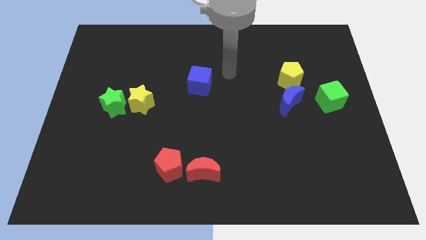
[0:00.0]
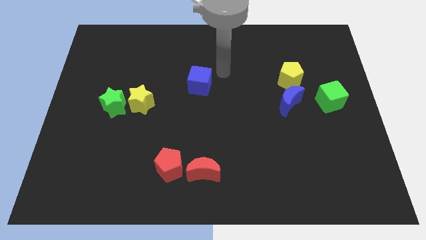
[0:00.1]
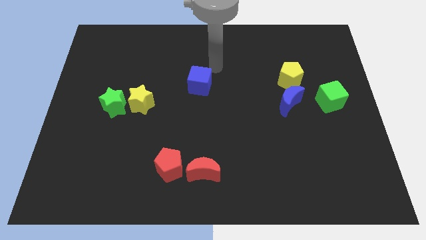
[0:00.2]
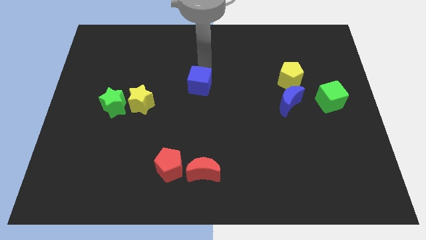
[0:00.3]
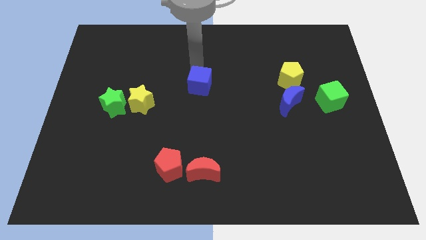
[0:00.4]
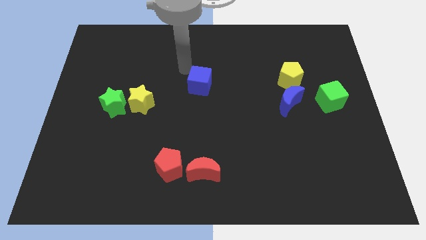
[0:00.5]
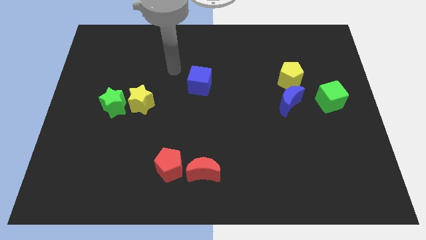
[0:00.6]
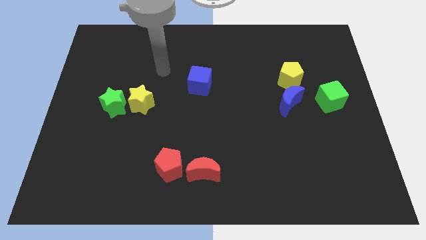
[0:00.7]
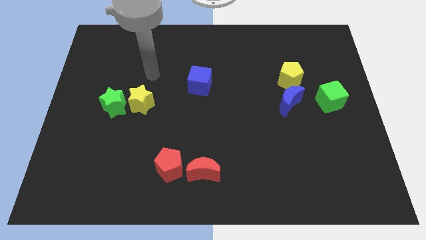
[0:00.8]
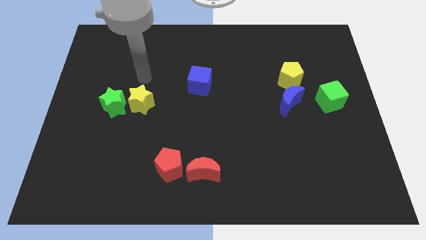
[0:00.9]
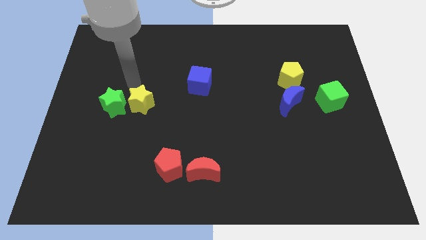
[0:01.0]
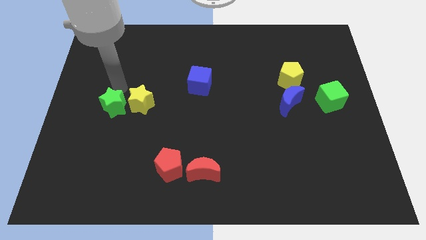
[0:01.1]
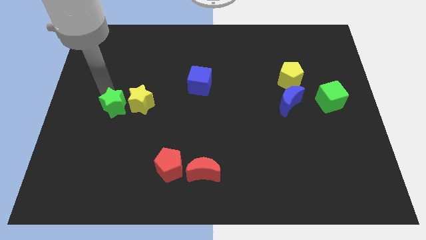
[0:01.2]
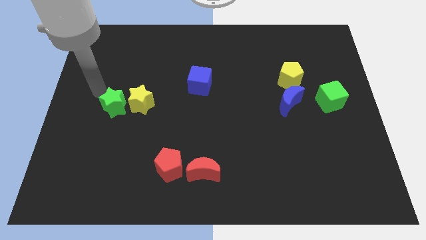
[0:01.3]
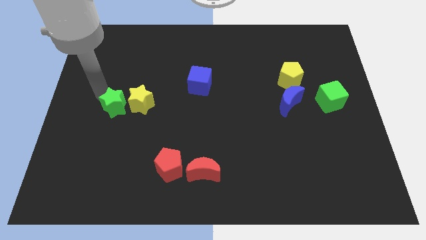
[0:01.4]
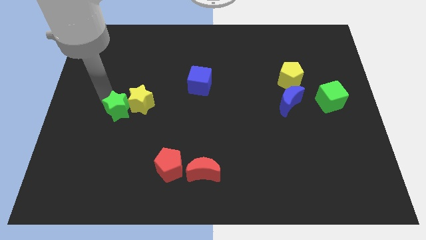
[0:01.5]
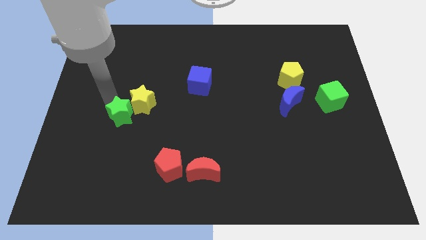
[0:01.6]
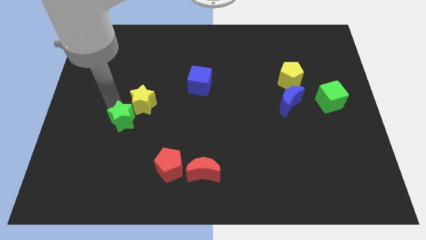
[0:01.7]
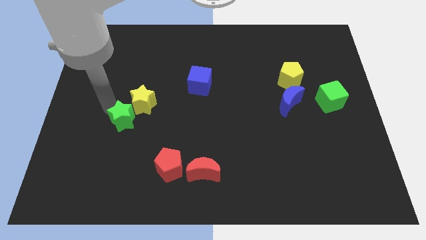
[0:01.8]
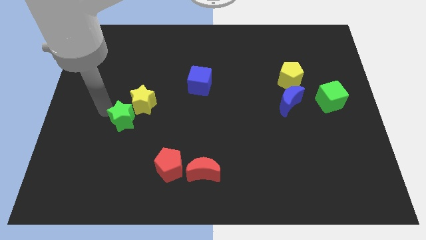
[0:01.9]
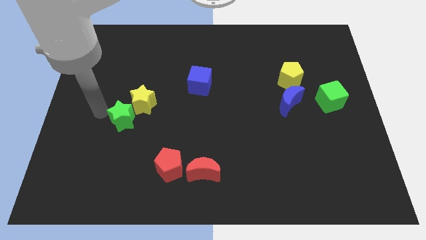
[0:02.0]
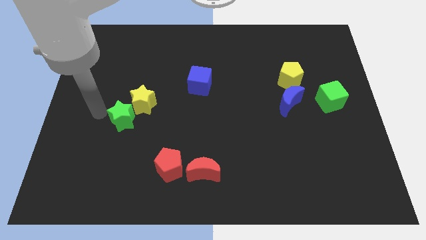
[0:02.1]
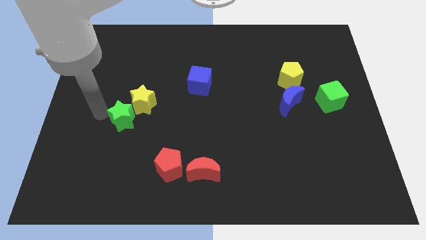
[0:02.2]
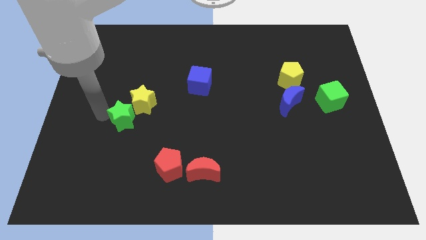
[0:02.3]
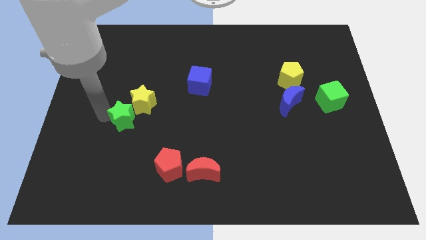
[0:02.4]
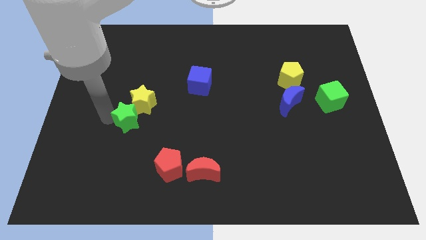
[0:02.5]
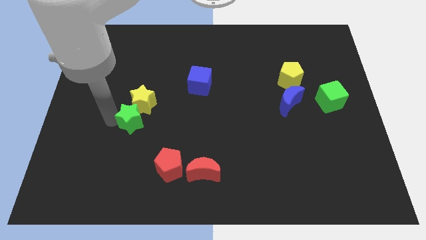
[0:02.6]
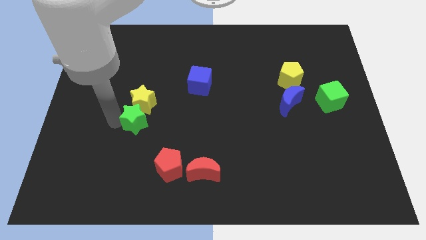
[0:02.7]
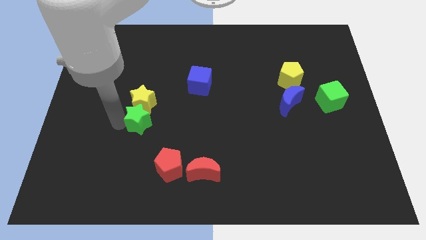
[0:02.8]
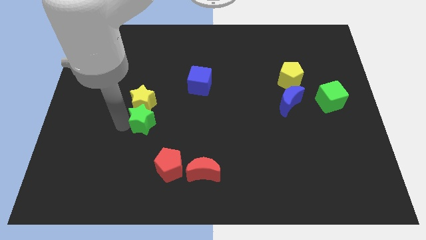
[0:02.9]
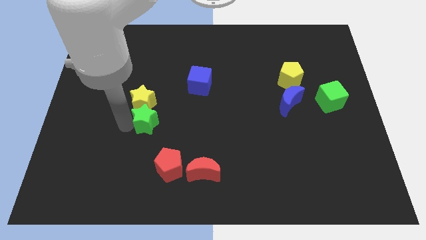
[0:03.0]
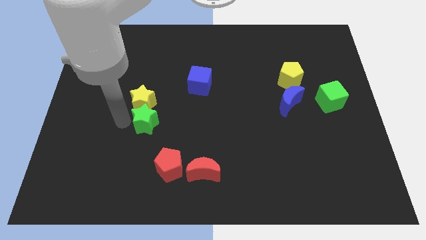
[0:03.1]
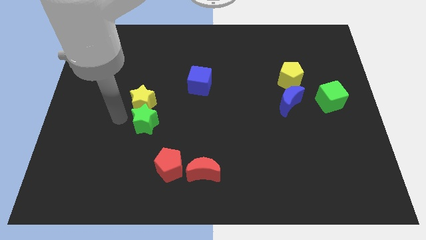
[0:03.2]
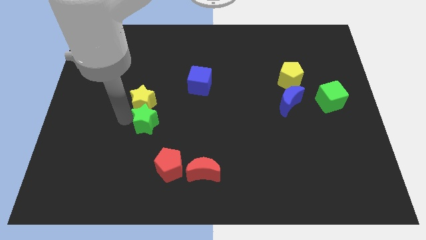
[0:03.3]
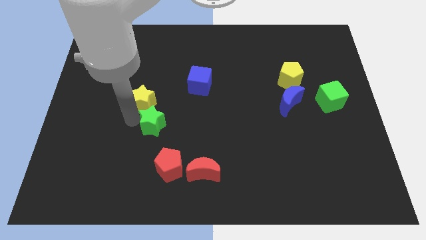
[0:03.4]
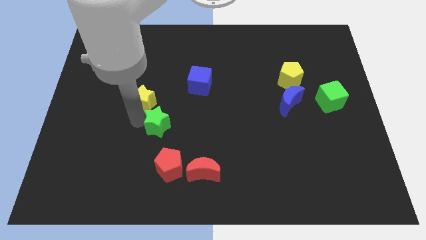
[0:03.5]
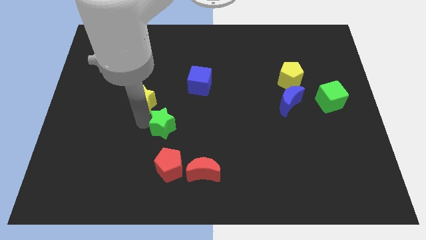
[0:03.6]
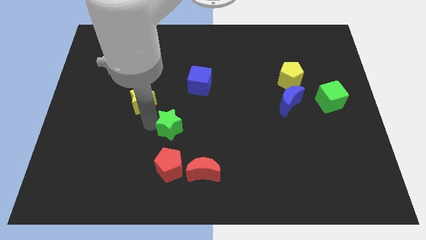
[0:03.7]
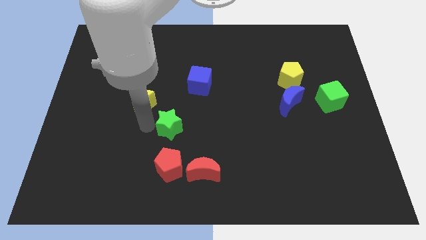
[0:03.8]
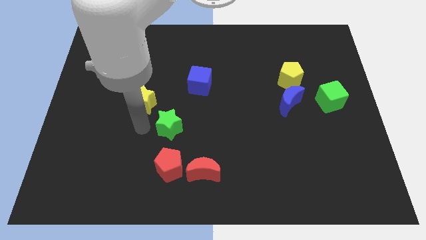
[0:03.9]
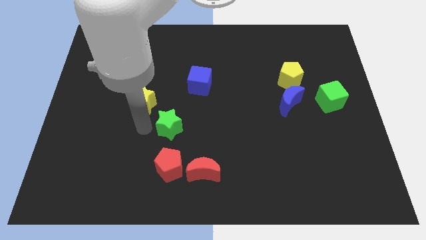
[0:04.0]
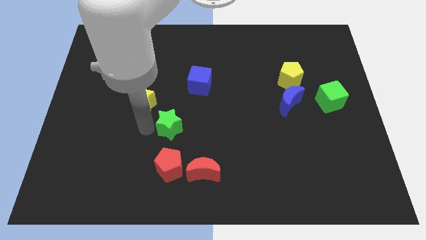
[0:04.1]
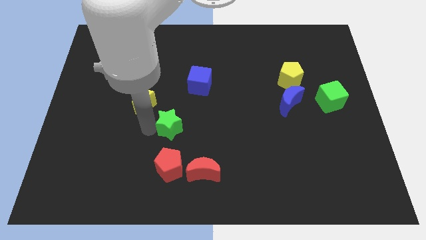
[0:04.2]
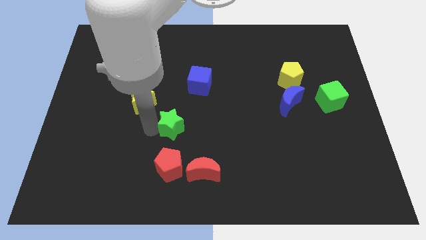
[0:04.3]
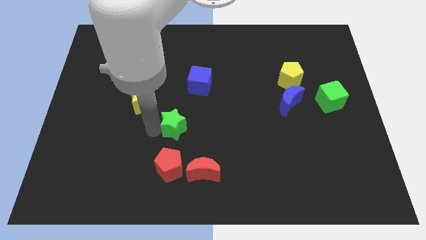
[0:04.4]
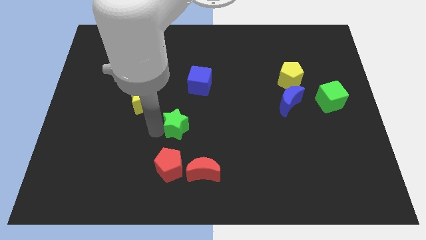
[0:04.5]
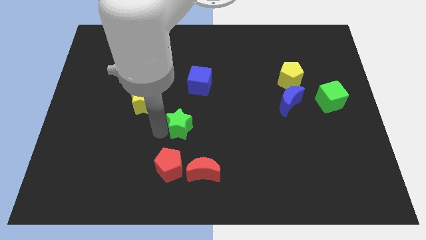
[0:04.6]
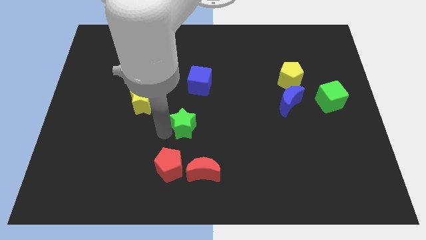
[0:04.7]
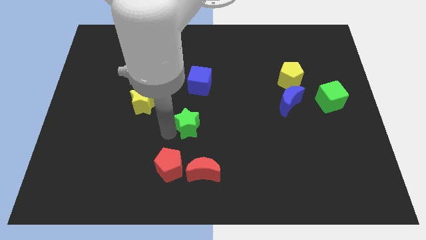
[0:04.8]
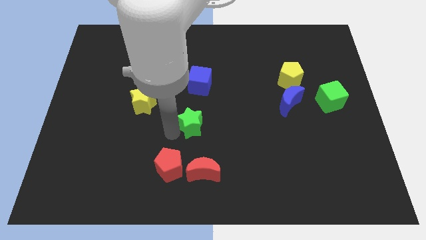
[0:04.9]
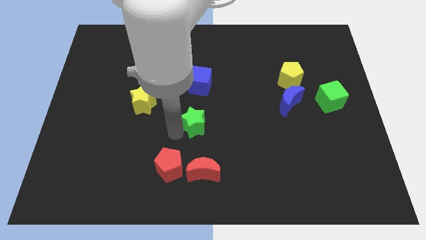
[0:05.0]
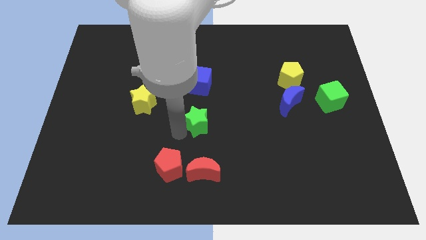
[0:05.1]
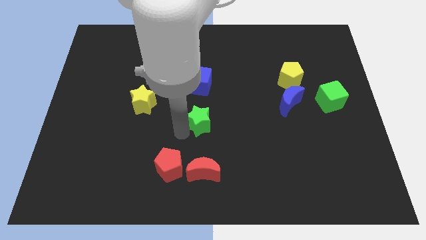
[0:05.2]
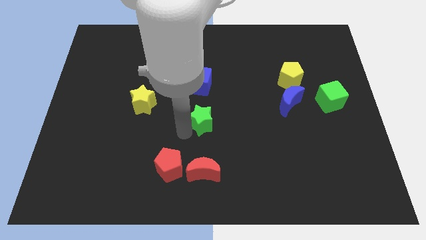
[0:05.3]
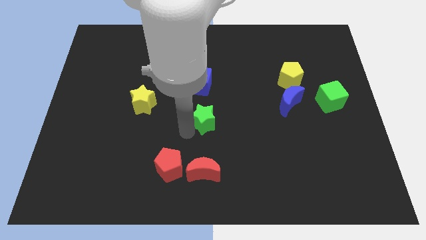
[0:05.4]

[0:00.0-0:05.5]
push the green star to the right

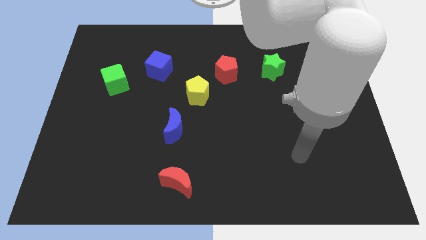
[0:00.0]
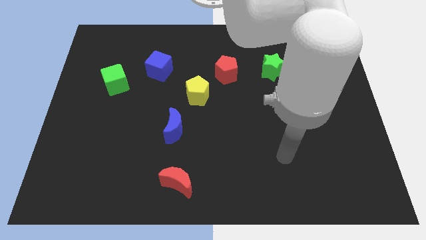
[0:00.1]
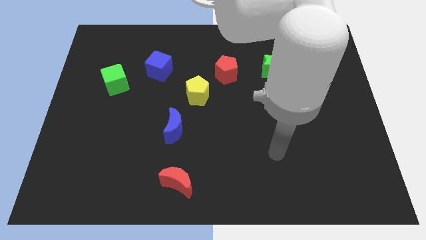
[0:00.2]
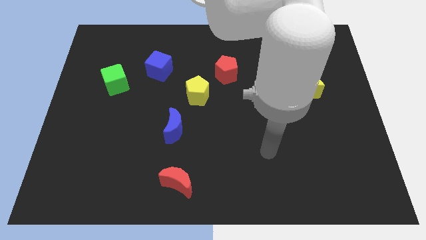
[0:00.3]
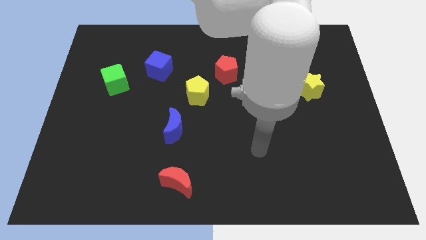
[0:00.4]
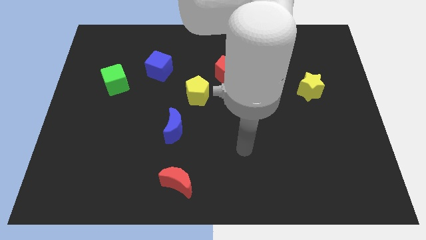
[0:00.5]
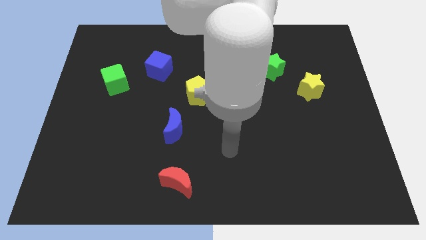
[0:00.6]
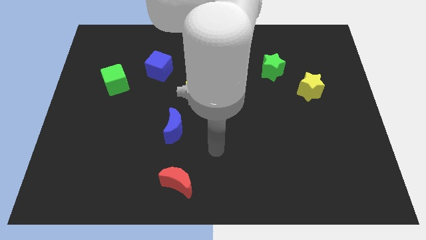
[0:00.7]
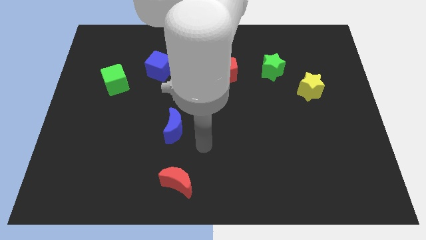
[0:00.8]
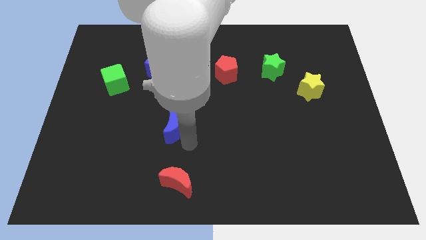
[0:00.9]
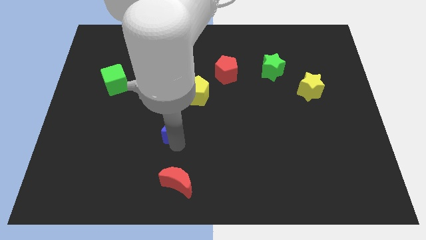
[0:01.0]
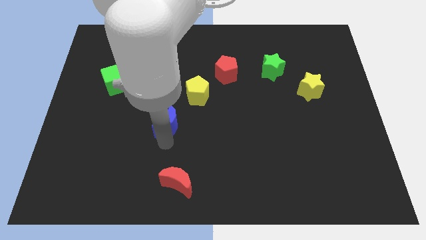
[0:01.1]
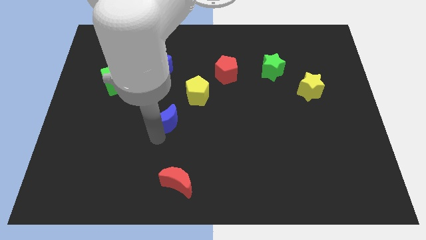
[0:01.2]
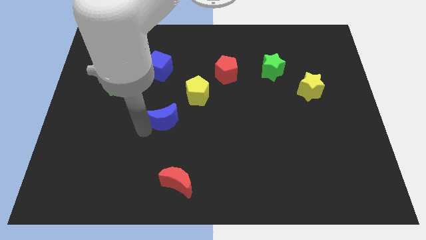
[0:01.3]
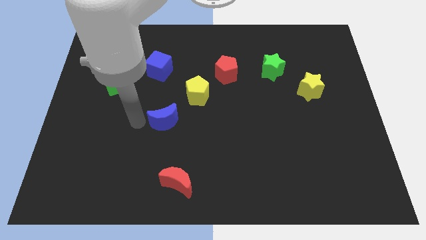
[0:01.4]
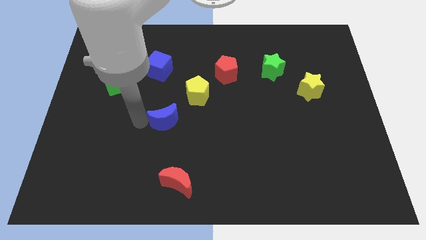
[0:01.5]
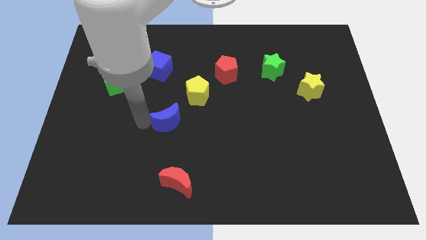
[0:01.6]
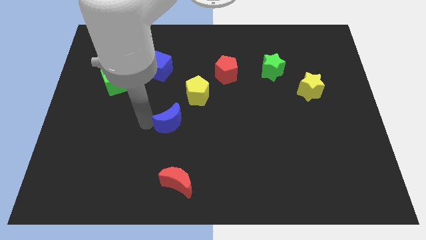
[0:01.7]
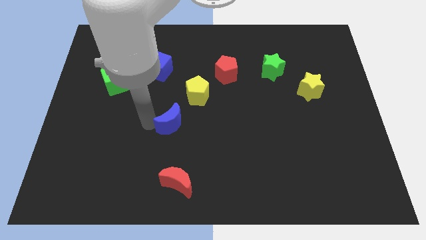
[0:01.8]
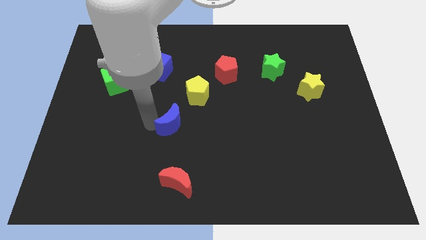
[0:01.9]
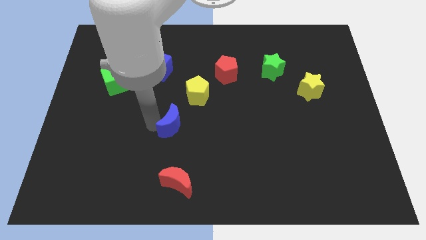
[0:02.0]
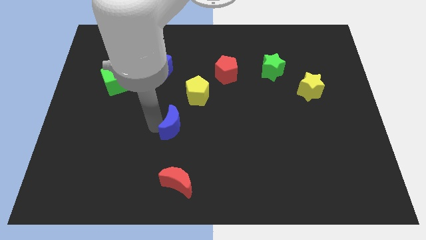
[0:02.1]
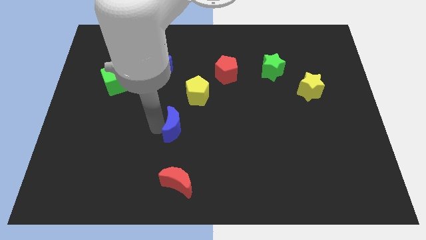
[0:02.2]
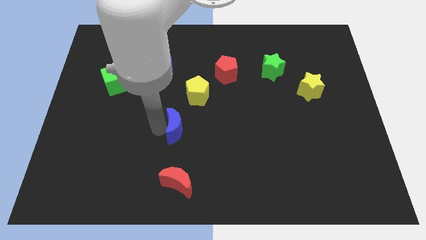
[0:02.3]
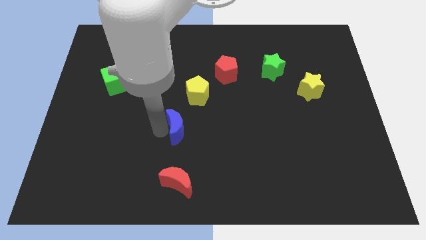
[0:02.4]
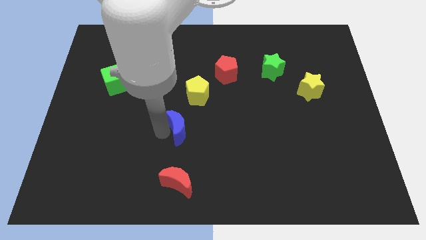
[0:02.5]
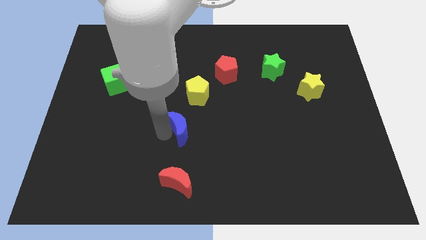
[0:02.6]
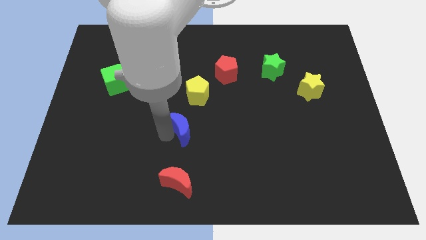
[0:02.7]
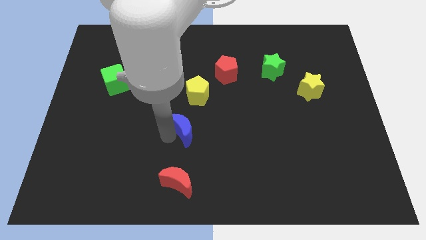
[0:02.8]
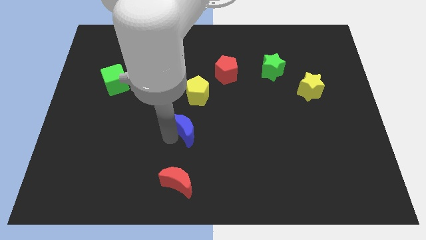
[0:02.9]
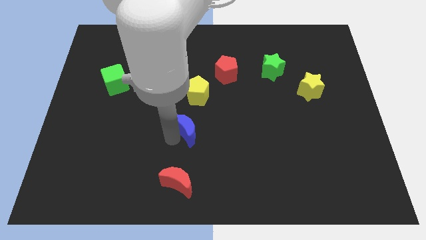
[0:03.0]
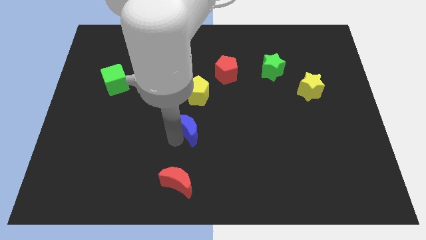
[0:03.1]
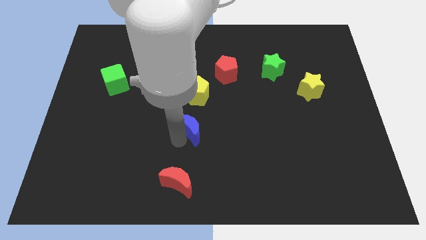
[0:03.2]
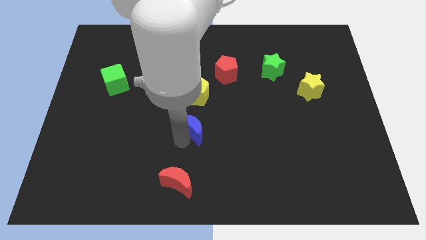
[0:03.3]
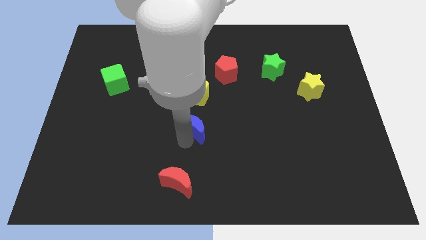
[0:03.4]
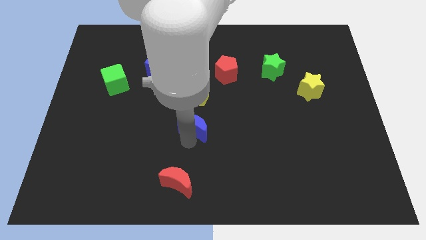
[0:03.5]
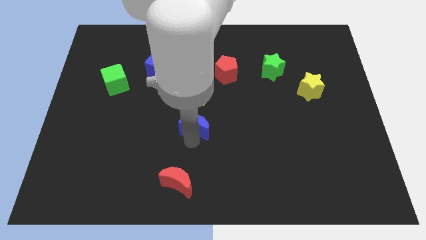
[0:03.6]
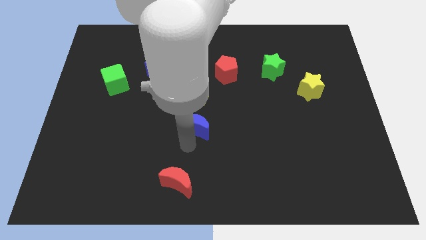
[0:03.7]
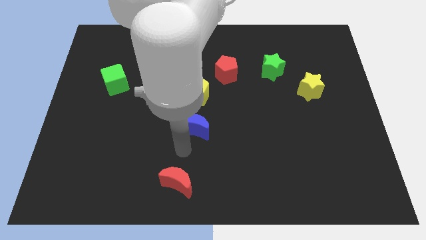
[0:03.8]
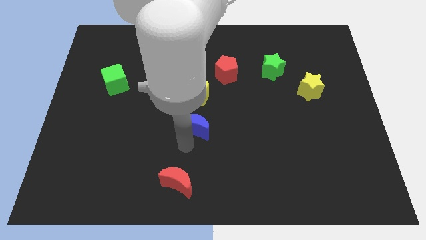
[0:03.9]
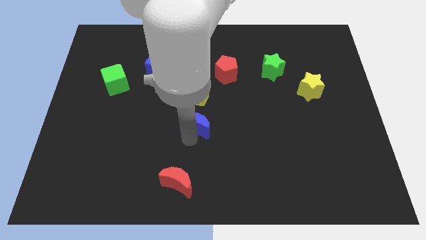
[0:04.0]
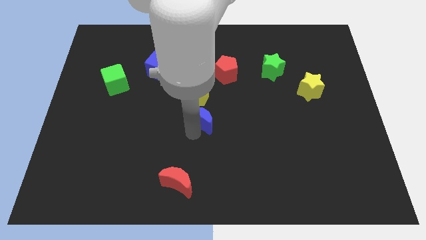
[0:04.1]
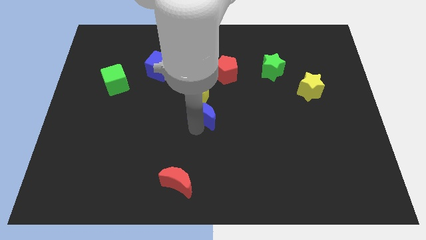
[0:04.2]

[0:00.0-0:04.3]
slightly push the blue moon diagonally upwards and right
